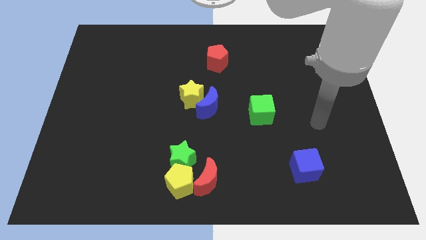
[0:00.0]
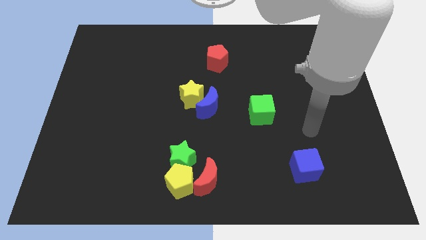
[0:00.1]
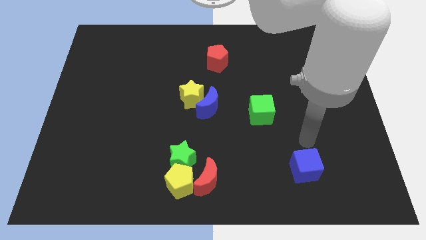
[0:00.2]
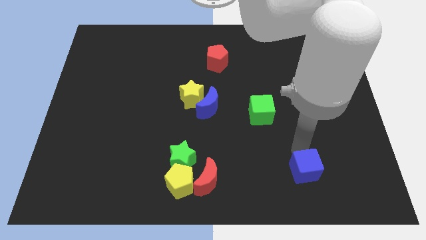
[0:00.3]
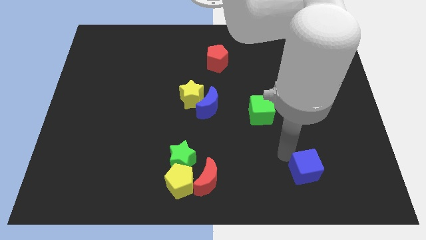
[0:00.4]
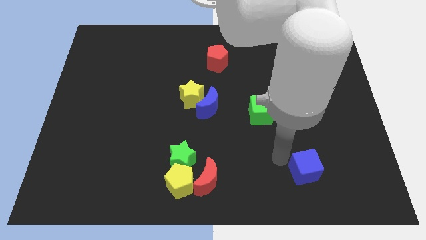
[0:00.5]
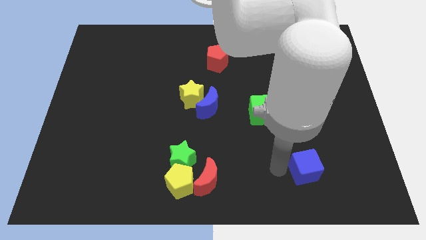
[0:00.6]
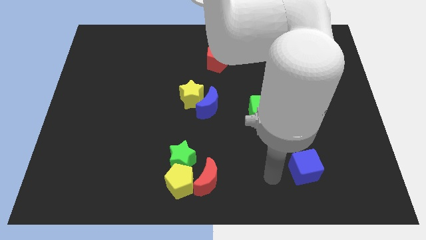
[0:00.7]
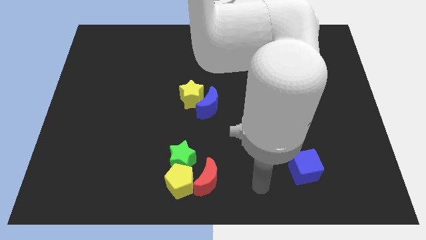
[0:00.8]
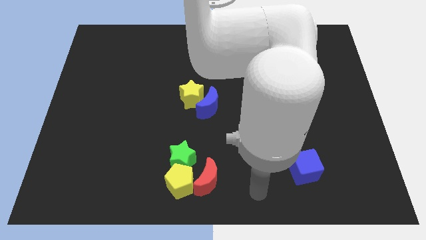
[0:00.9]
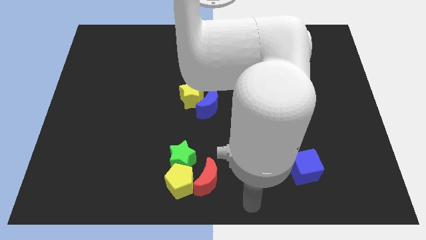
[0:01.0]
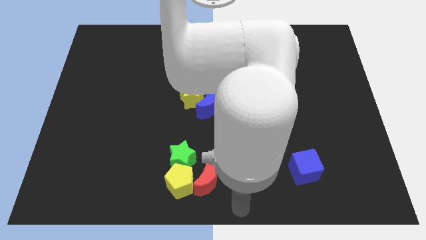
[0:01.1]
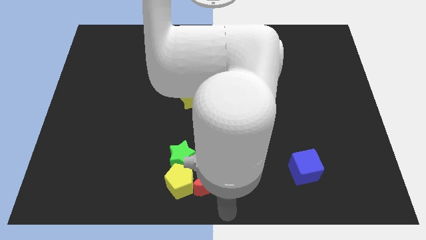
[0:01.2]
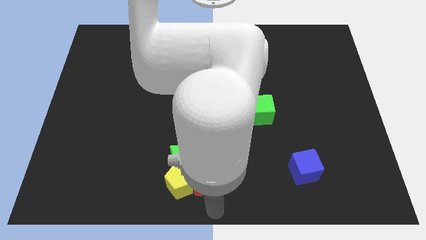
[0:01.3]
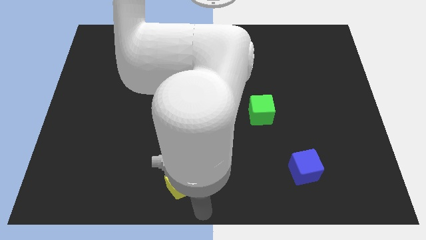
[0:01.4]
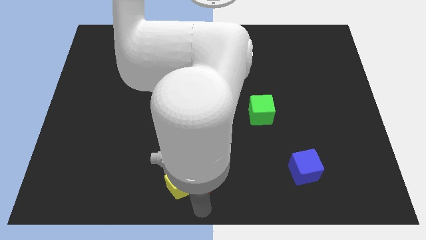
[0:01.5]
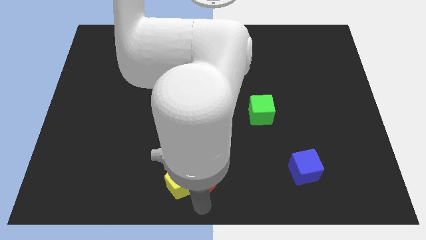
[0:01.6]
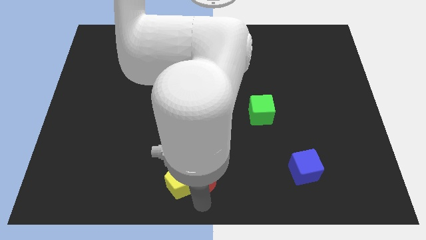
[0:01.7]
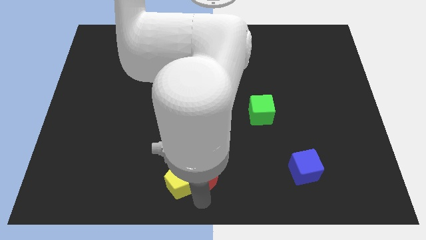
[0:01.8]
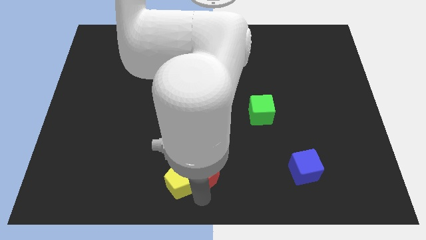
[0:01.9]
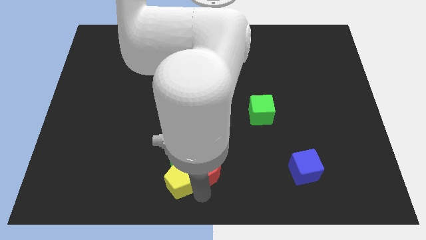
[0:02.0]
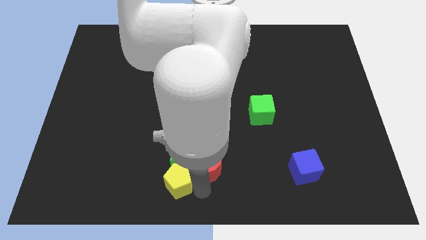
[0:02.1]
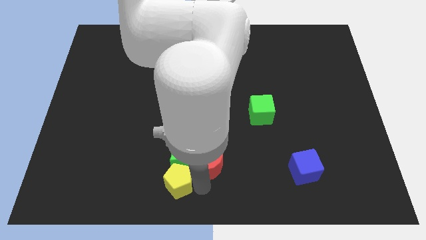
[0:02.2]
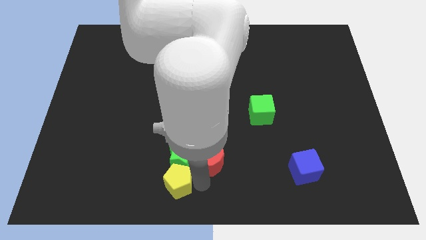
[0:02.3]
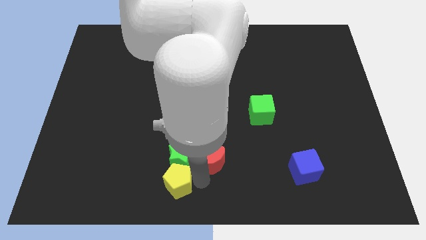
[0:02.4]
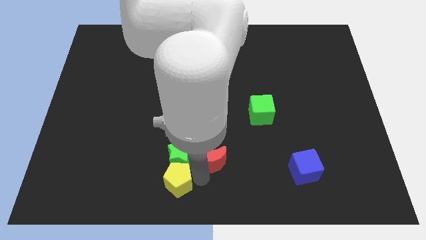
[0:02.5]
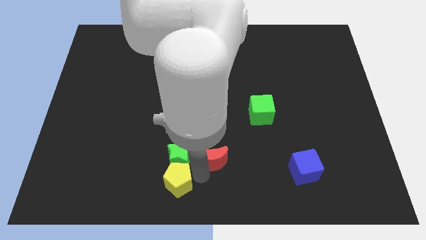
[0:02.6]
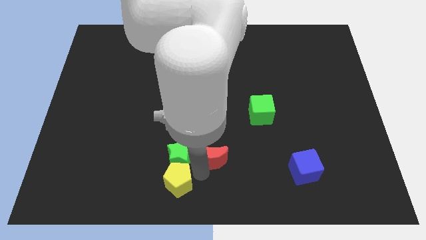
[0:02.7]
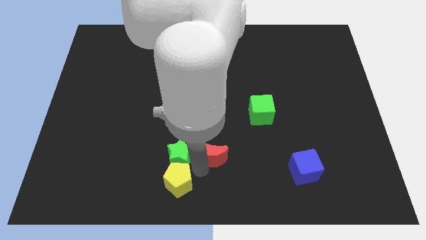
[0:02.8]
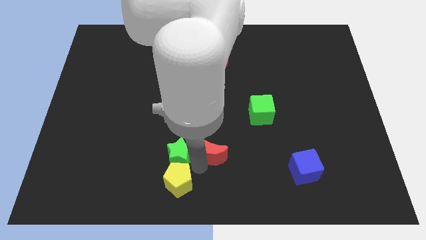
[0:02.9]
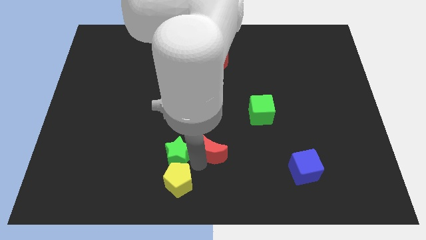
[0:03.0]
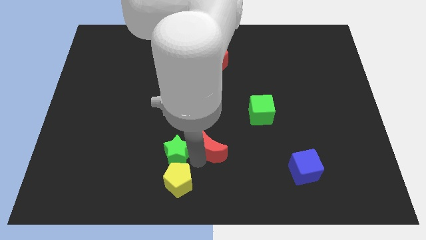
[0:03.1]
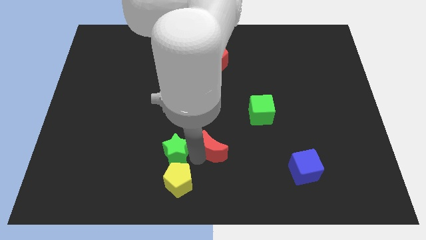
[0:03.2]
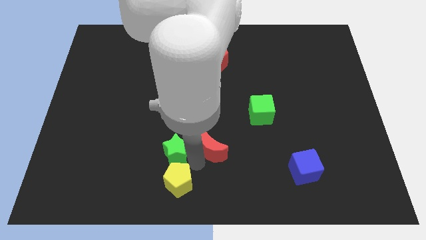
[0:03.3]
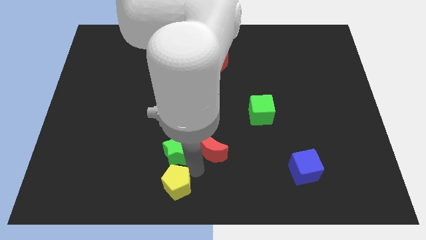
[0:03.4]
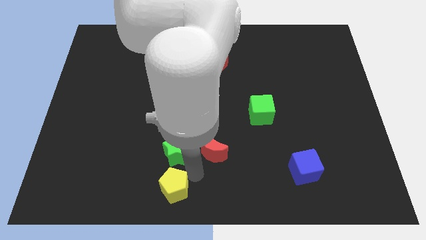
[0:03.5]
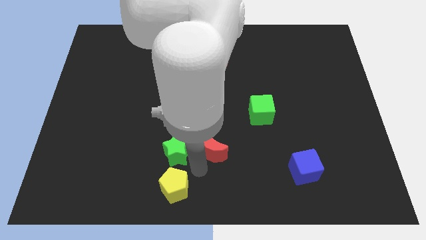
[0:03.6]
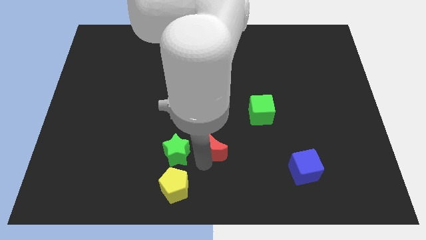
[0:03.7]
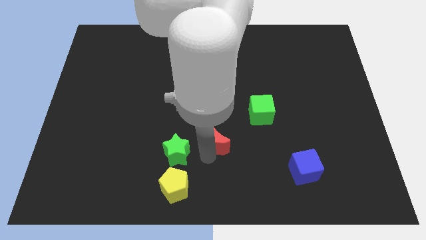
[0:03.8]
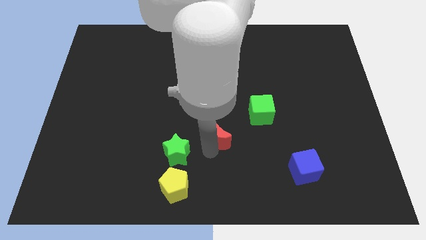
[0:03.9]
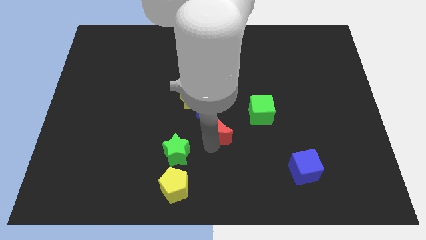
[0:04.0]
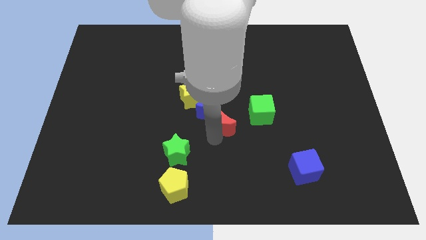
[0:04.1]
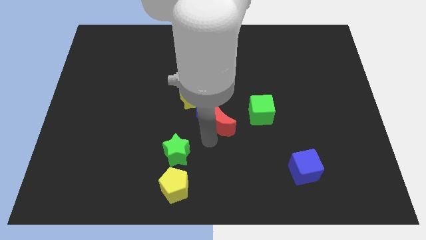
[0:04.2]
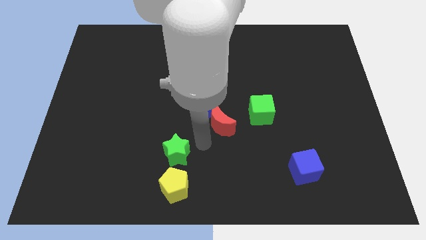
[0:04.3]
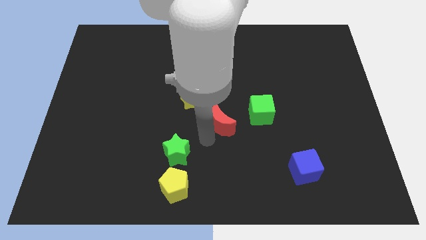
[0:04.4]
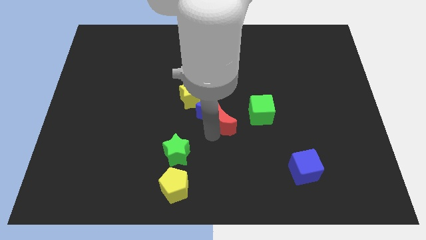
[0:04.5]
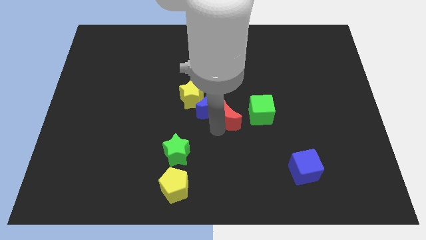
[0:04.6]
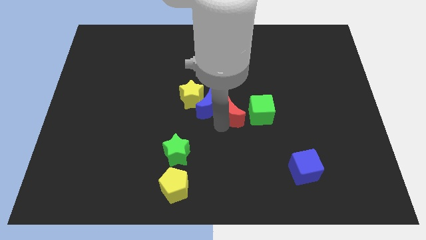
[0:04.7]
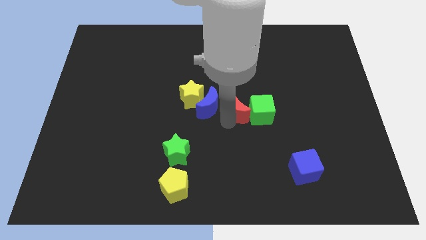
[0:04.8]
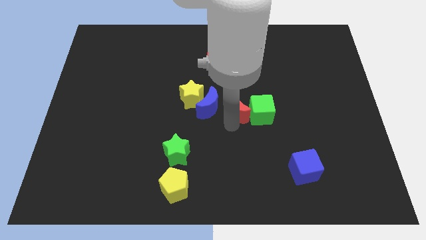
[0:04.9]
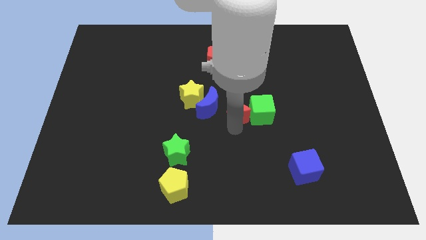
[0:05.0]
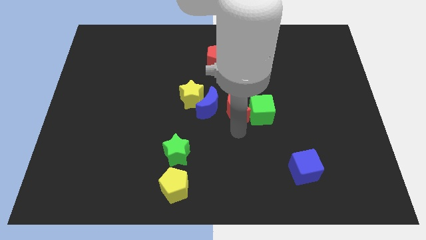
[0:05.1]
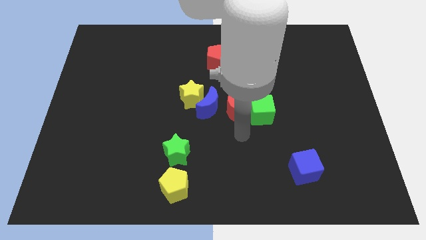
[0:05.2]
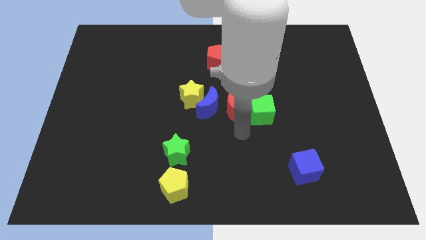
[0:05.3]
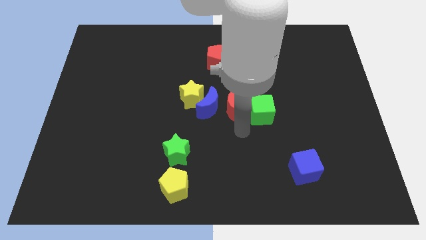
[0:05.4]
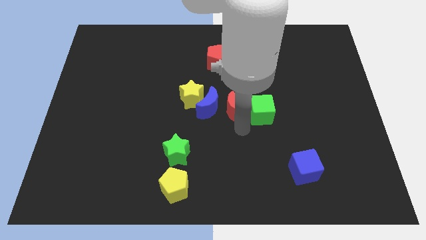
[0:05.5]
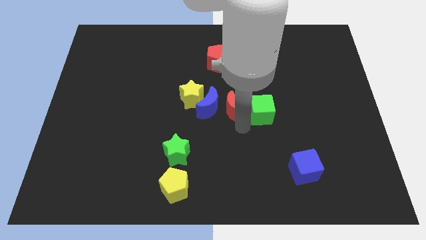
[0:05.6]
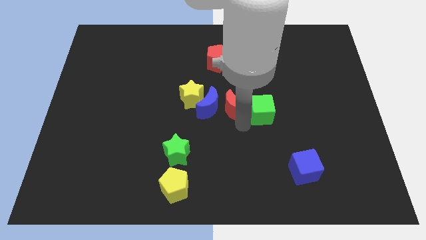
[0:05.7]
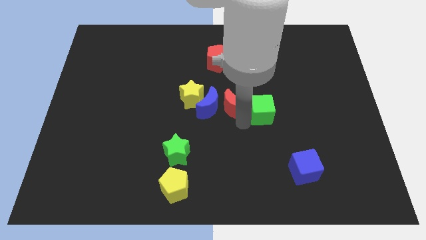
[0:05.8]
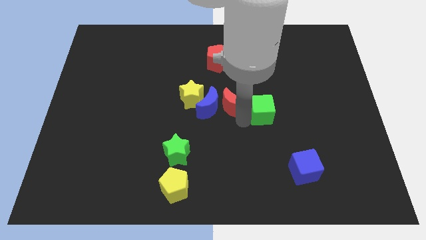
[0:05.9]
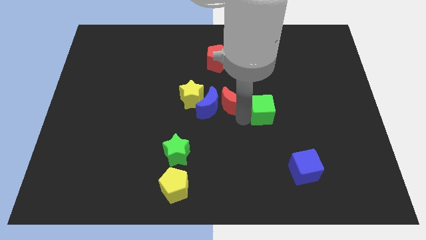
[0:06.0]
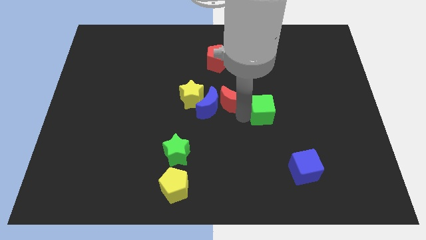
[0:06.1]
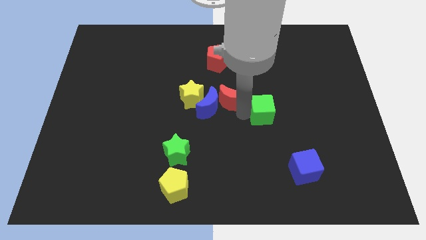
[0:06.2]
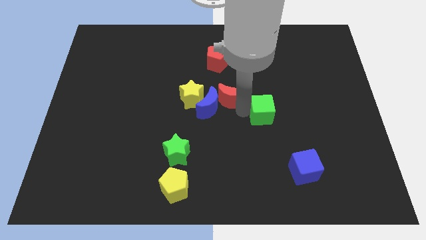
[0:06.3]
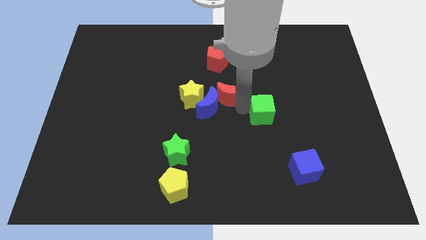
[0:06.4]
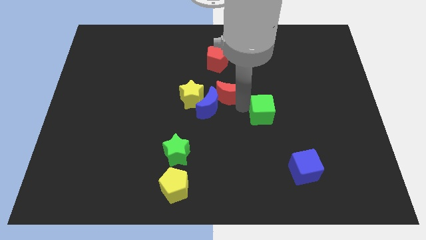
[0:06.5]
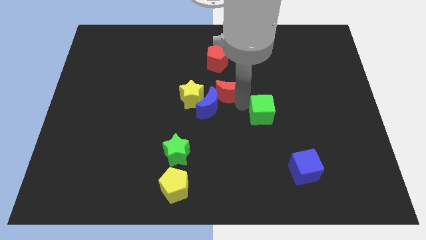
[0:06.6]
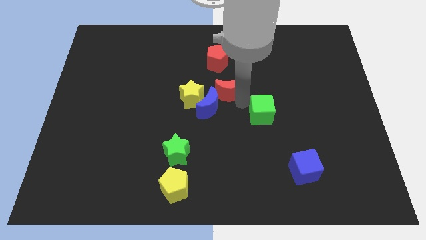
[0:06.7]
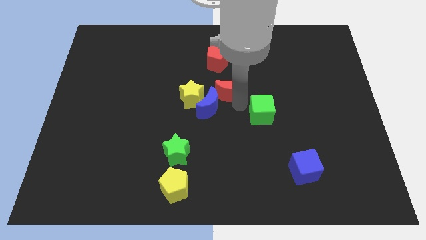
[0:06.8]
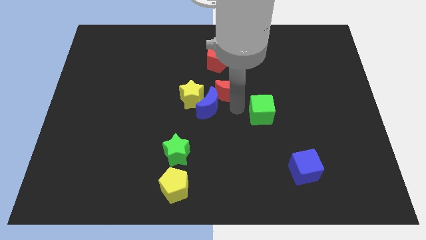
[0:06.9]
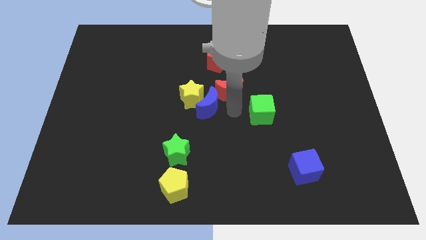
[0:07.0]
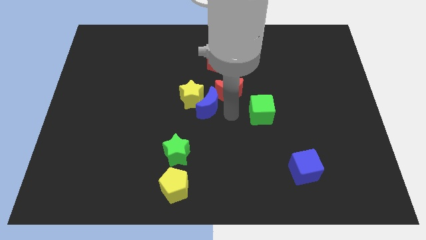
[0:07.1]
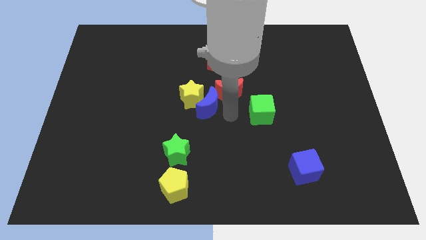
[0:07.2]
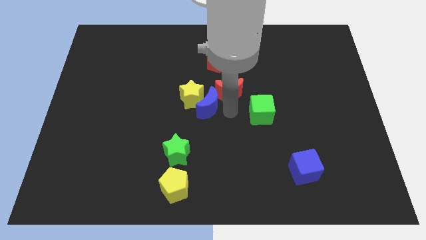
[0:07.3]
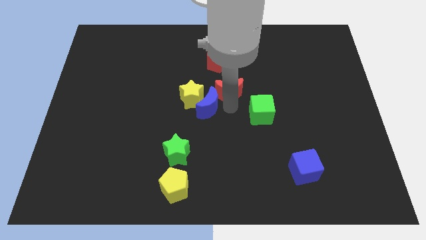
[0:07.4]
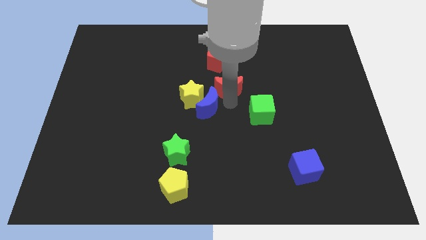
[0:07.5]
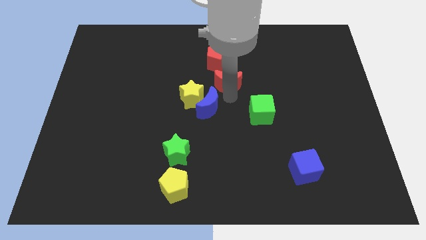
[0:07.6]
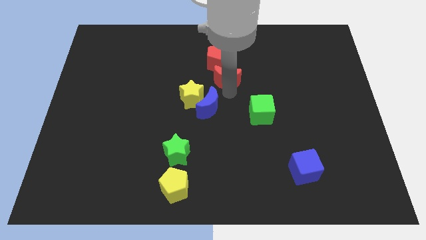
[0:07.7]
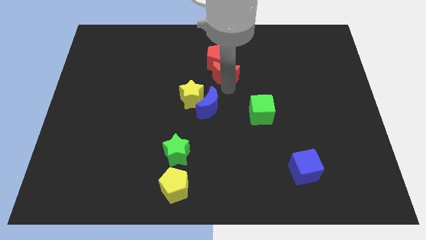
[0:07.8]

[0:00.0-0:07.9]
move the red moon next to the red pentagon
